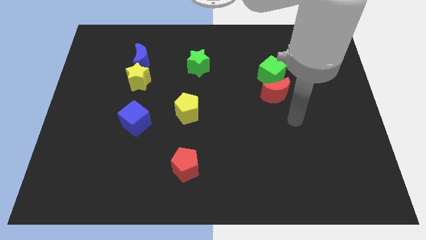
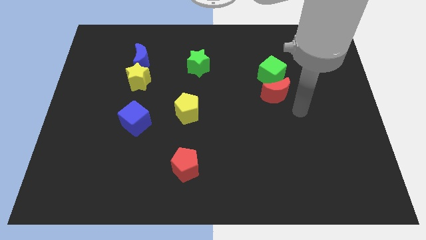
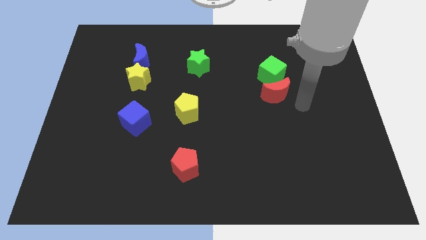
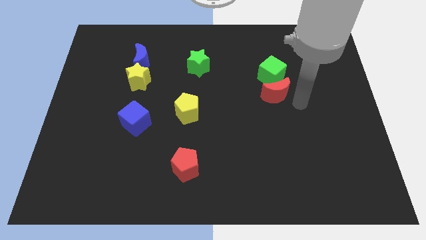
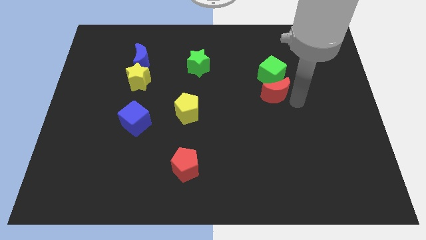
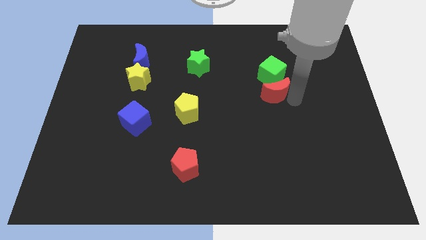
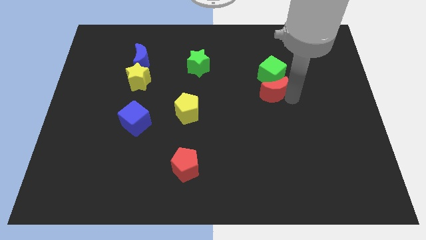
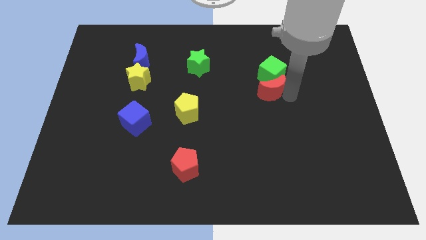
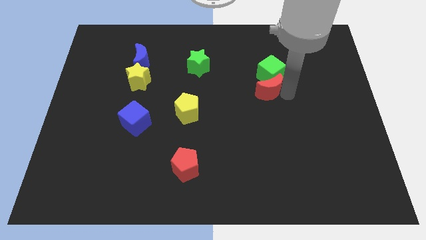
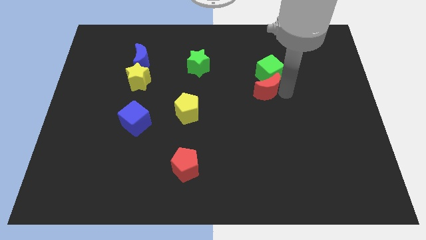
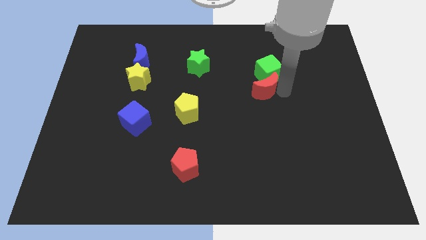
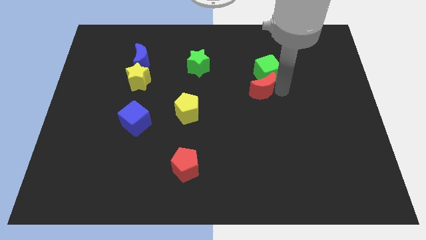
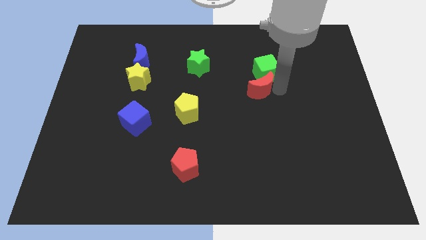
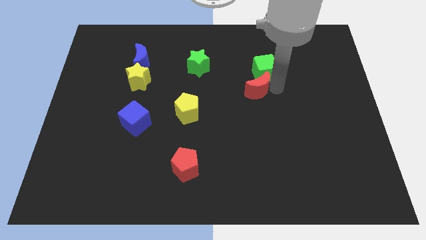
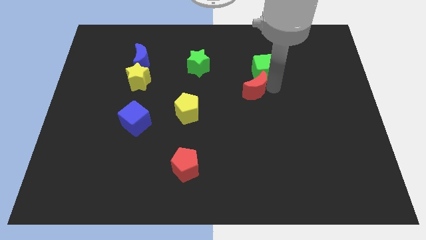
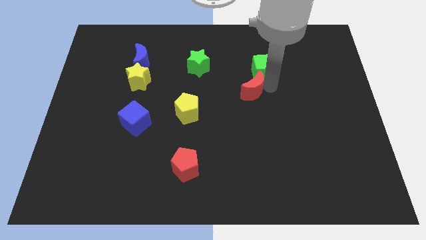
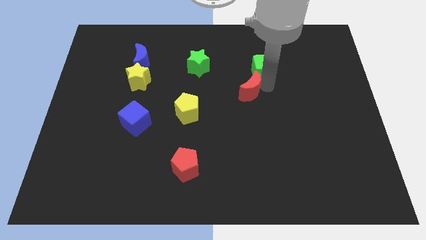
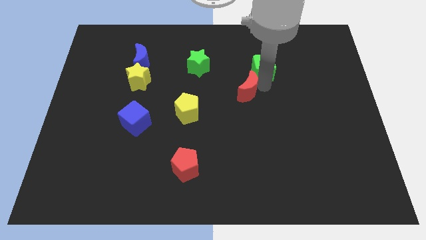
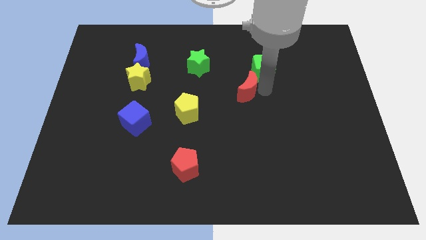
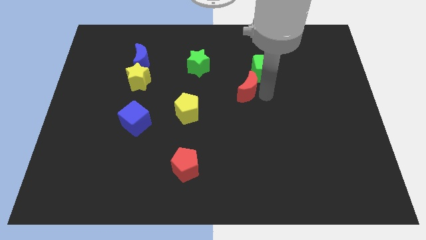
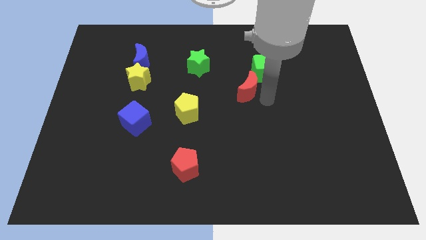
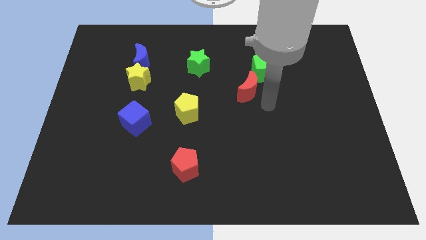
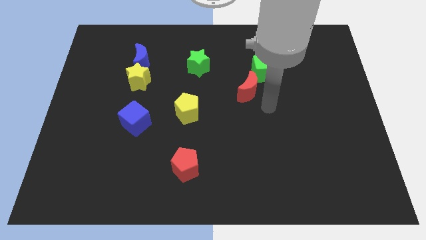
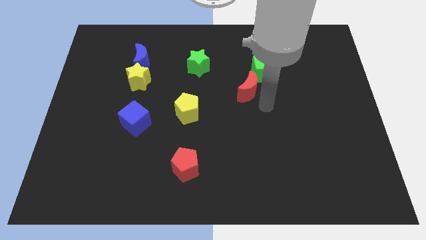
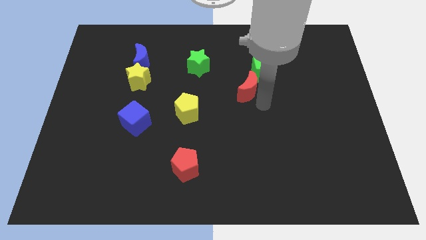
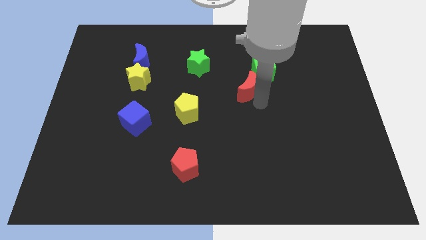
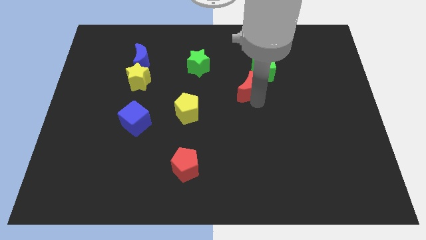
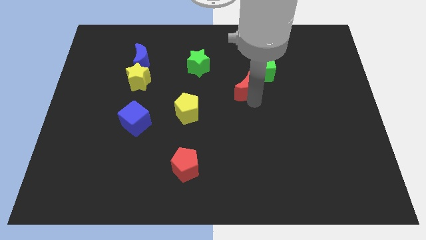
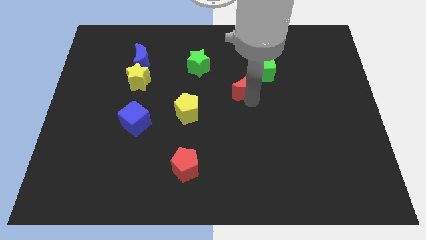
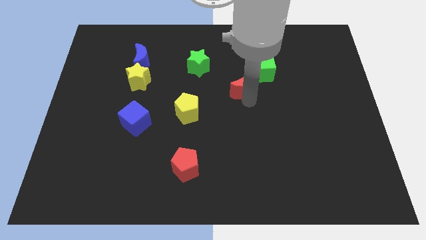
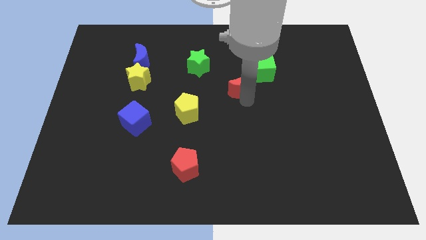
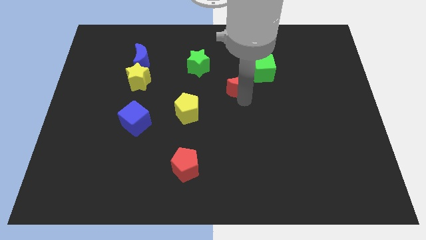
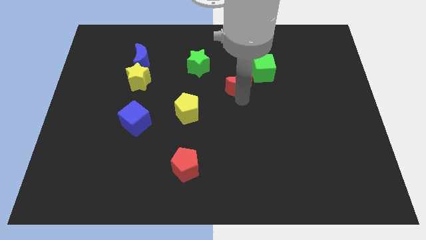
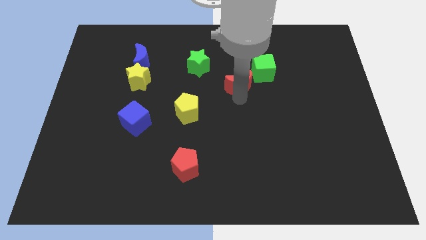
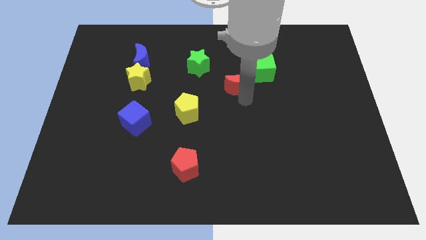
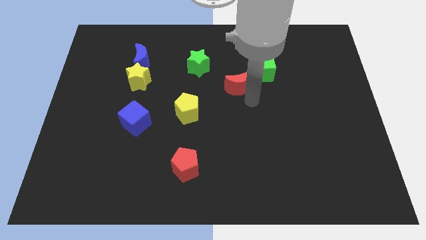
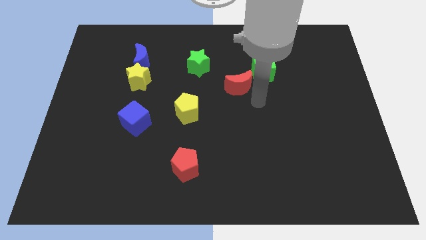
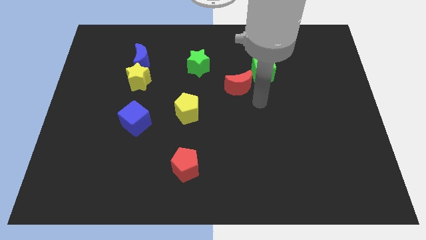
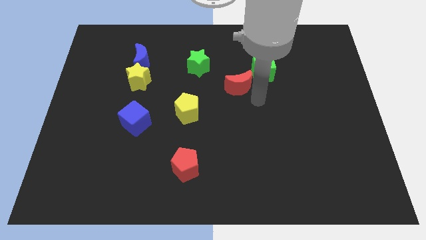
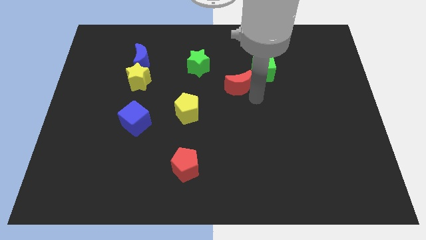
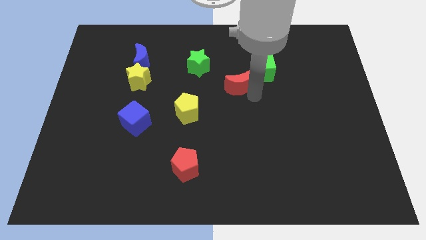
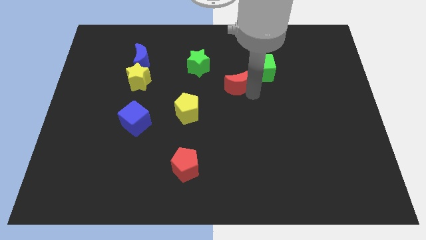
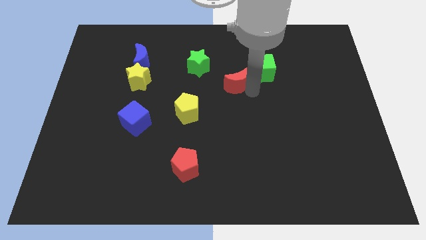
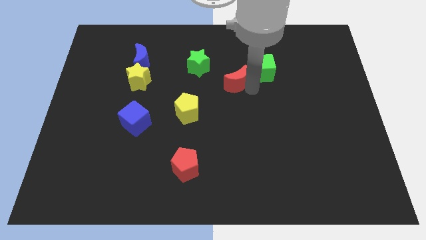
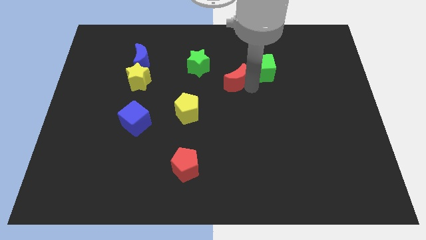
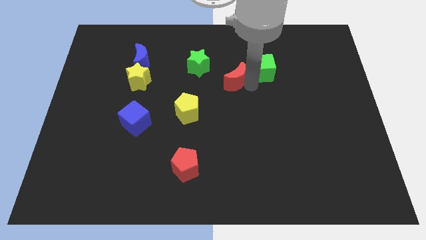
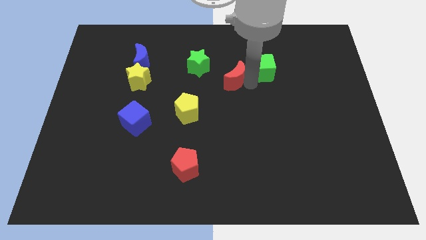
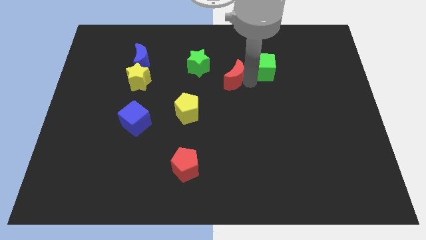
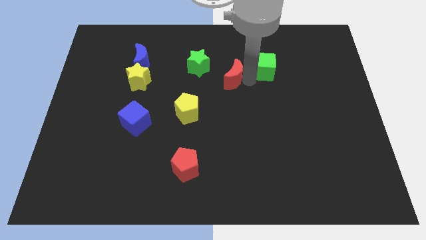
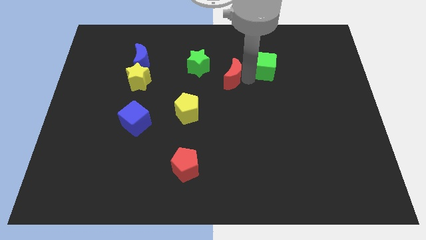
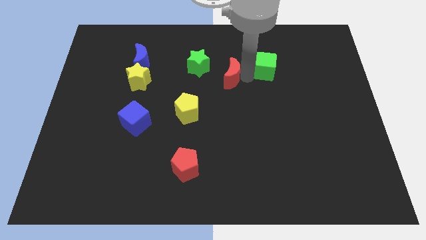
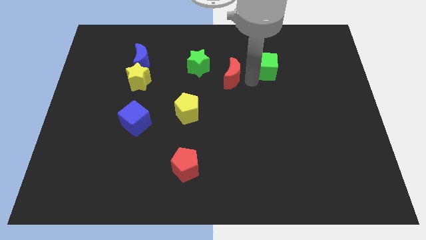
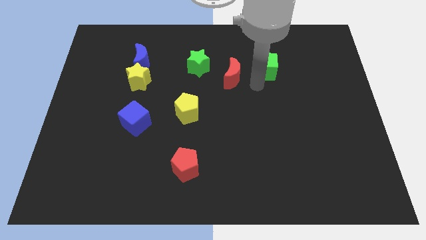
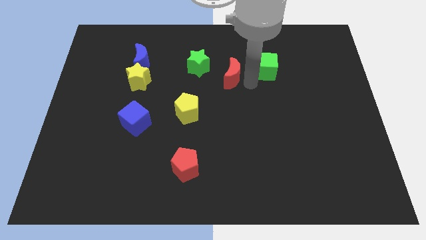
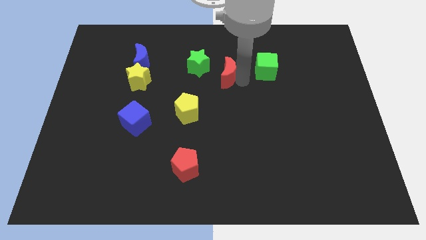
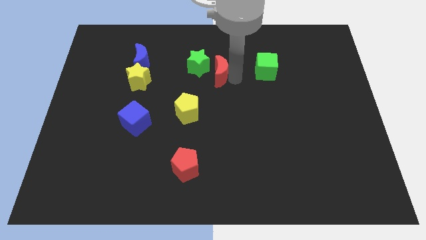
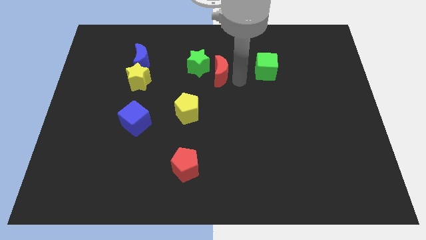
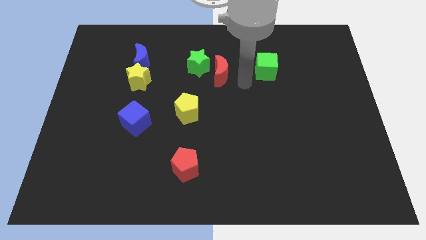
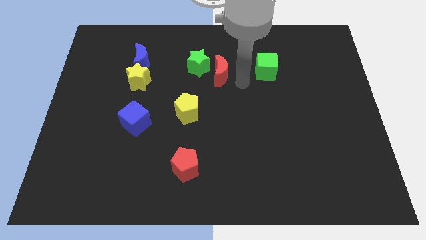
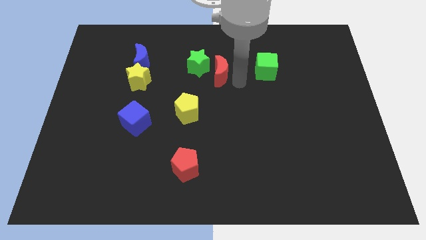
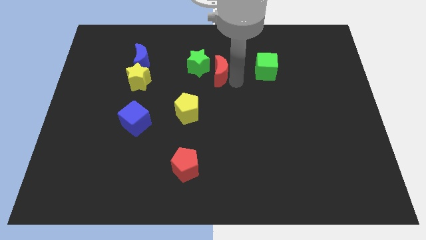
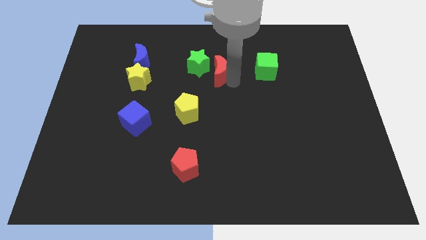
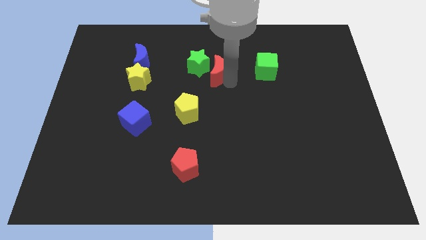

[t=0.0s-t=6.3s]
put the red moon close to the green star

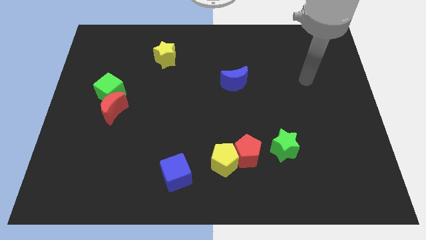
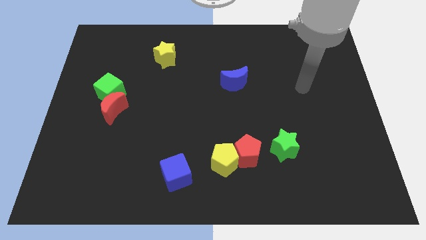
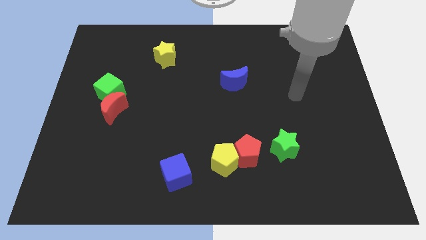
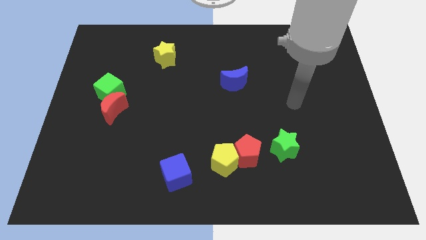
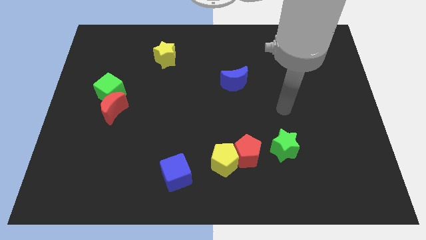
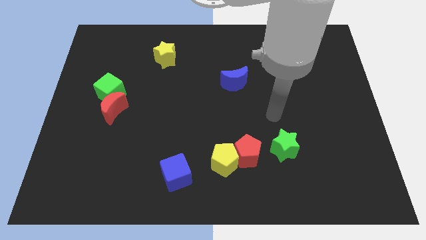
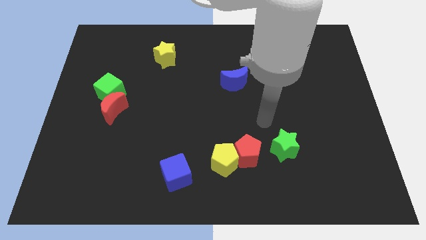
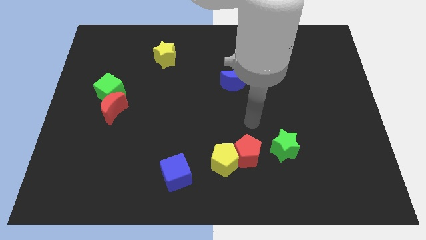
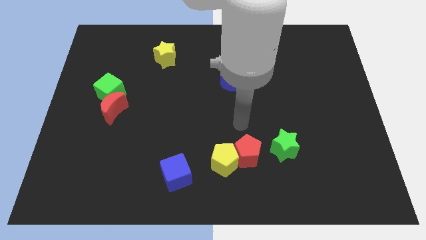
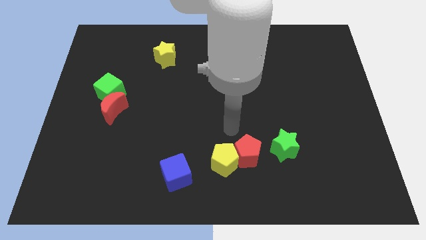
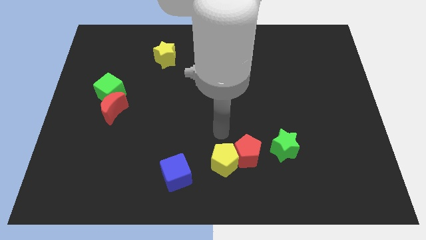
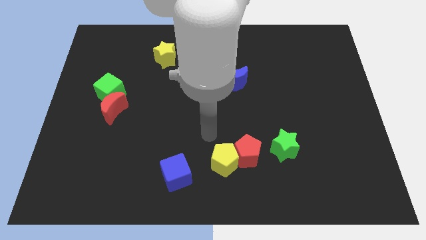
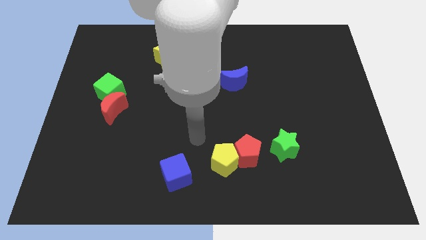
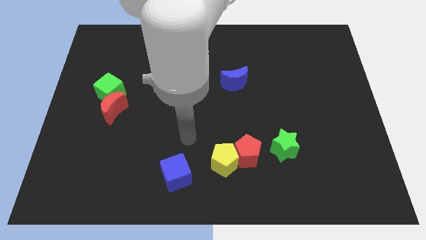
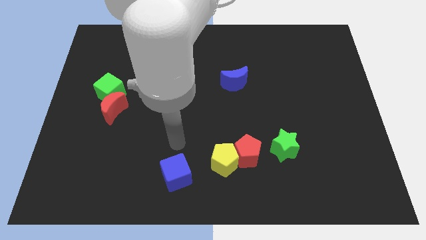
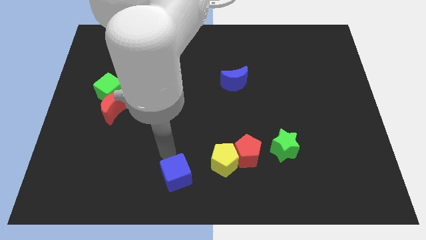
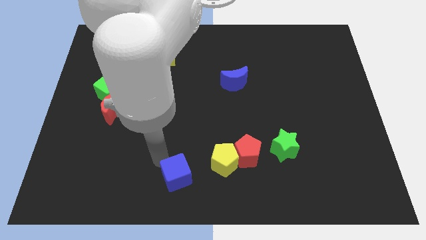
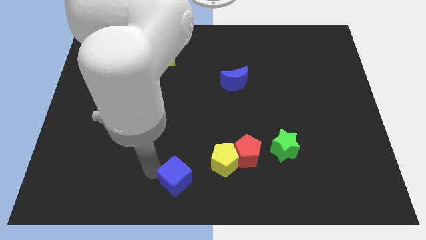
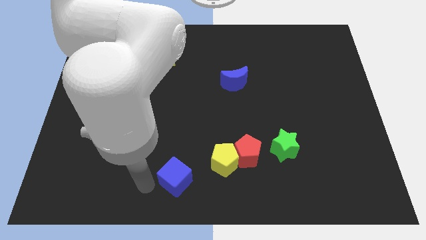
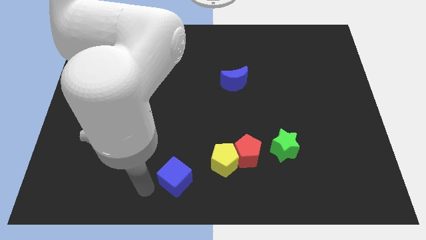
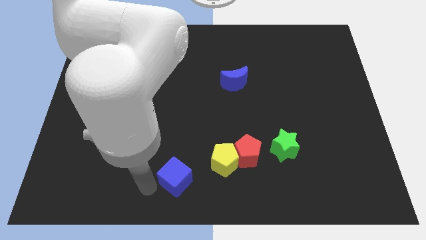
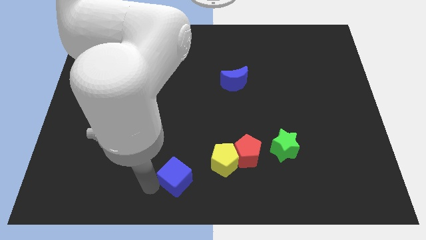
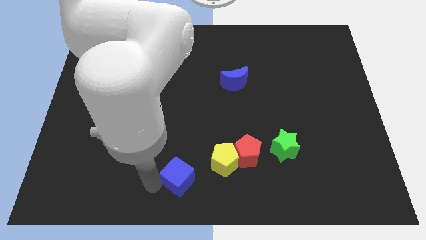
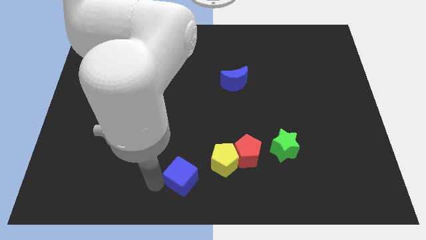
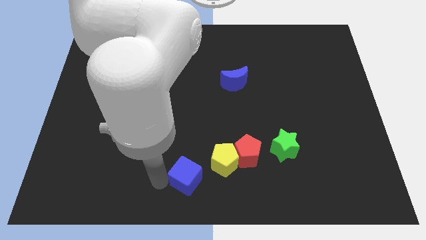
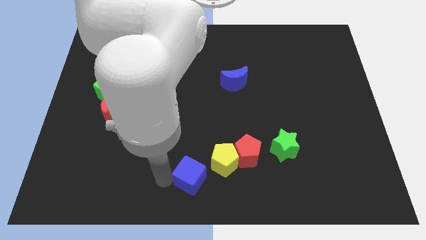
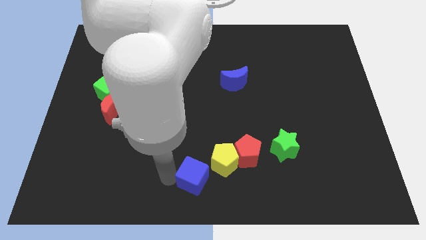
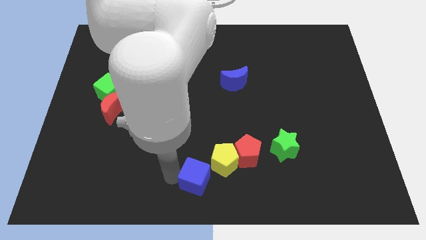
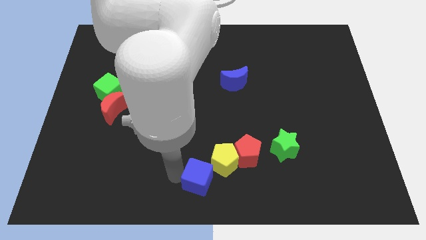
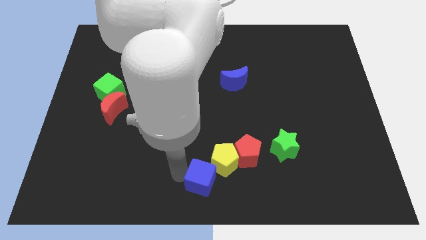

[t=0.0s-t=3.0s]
slide the blue cube close to the yellow pentagon
